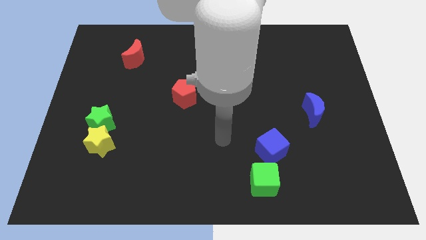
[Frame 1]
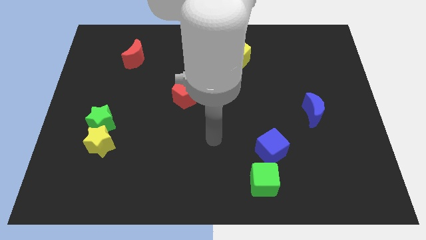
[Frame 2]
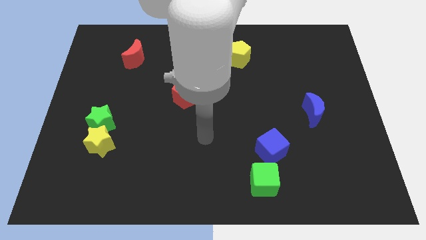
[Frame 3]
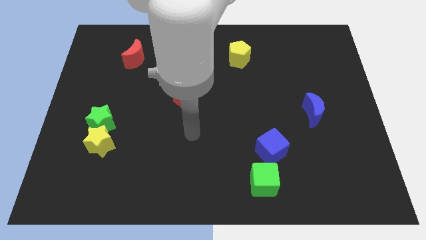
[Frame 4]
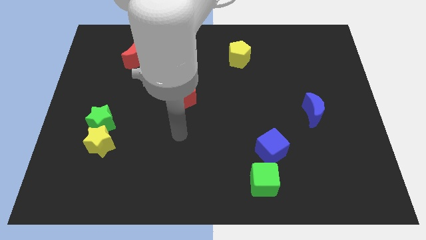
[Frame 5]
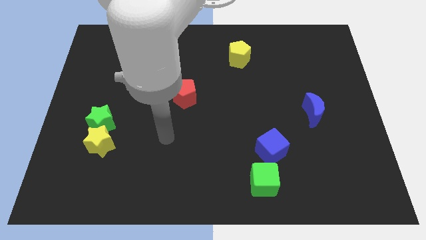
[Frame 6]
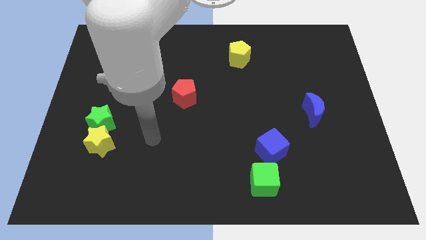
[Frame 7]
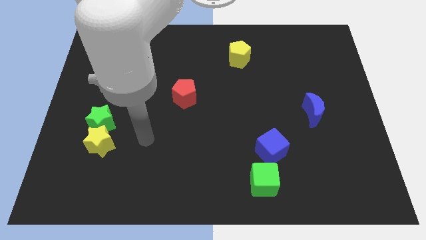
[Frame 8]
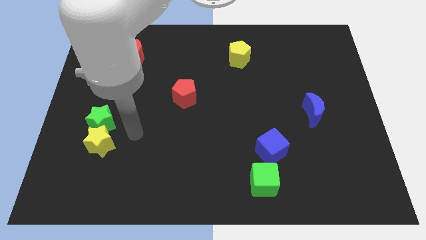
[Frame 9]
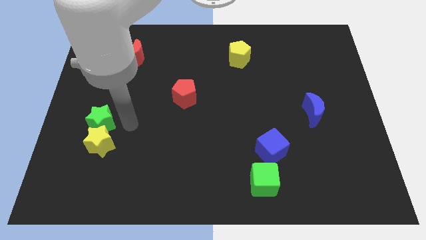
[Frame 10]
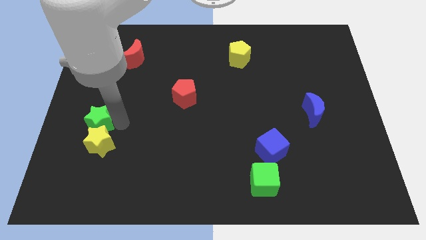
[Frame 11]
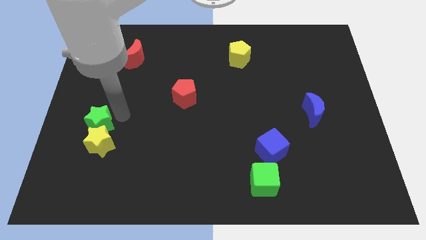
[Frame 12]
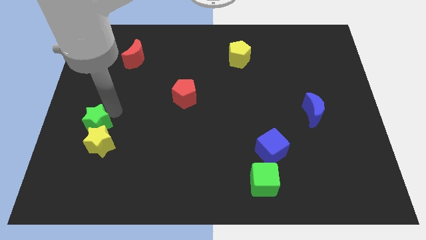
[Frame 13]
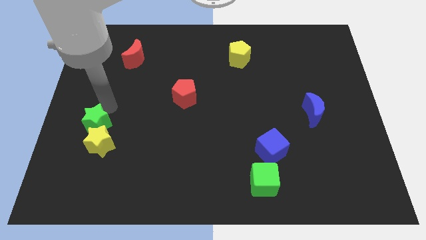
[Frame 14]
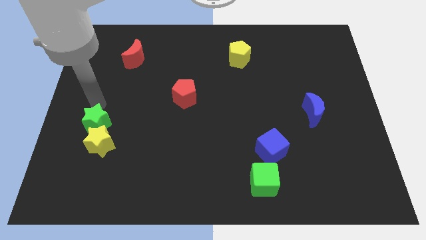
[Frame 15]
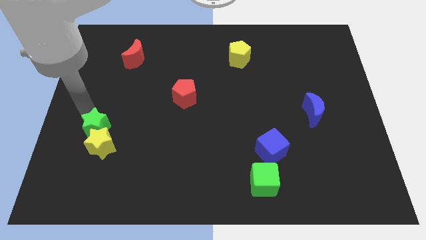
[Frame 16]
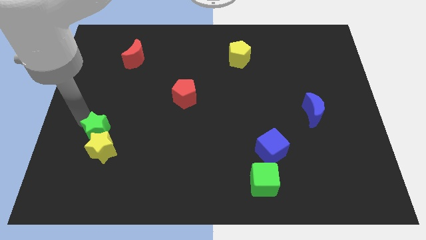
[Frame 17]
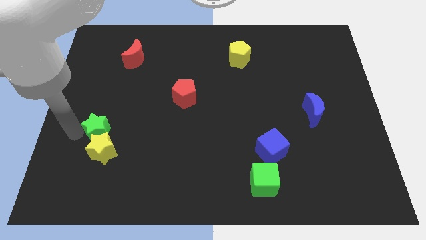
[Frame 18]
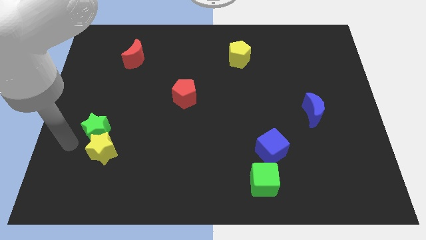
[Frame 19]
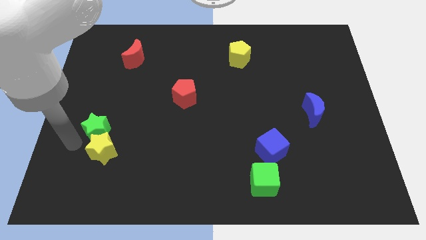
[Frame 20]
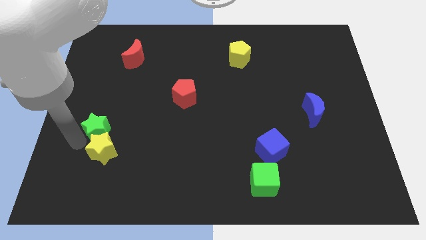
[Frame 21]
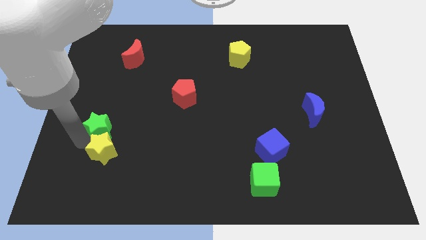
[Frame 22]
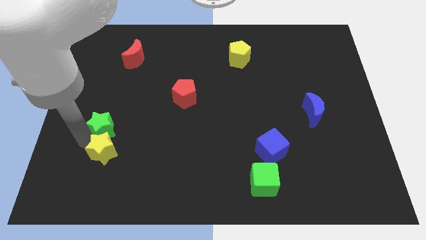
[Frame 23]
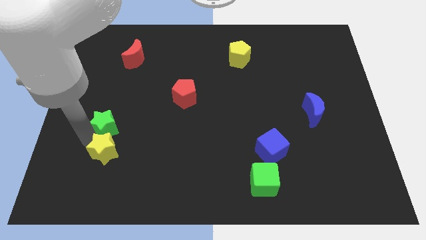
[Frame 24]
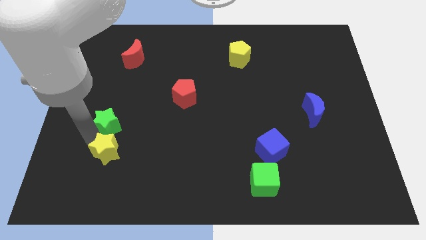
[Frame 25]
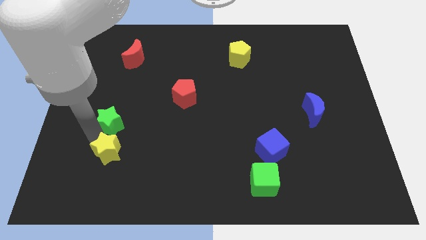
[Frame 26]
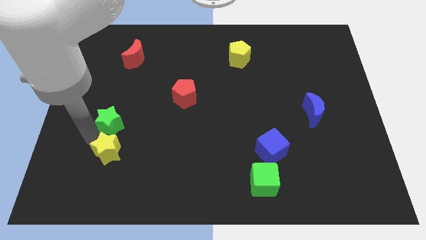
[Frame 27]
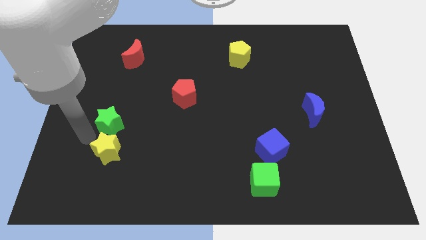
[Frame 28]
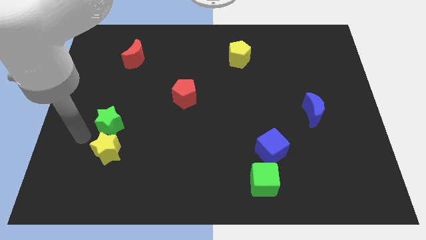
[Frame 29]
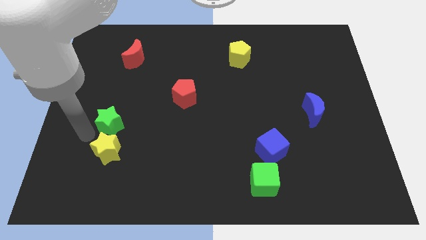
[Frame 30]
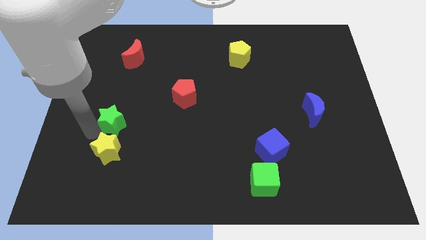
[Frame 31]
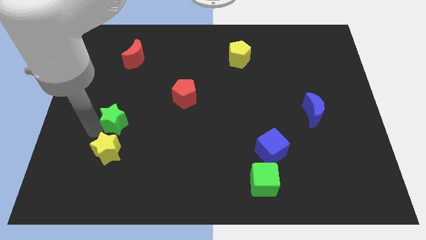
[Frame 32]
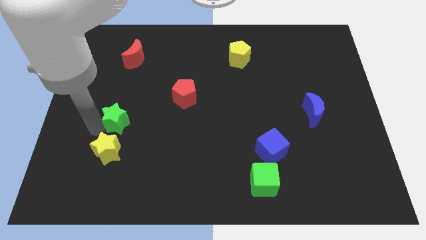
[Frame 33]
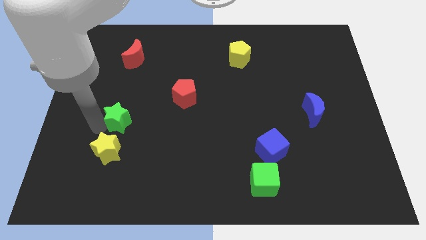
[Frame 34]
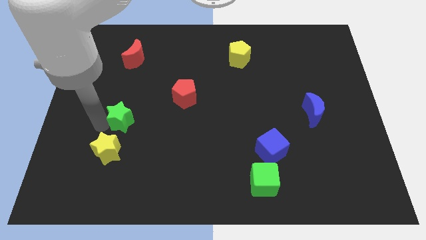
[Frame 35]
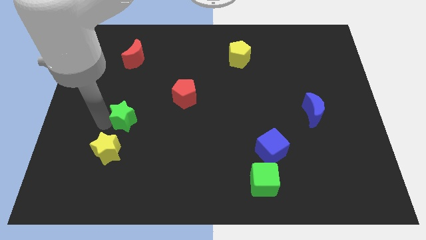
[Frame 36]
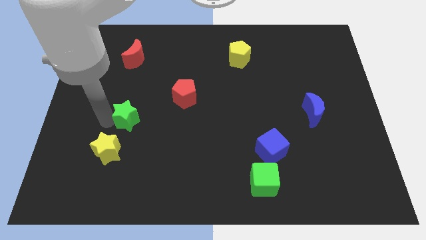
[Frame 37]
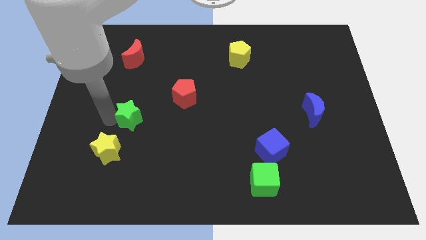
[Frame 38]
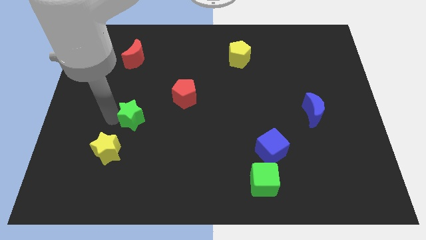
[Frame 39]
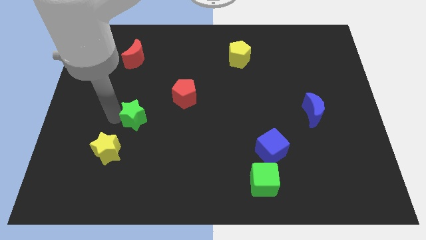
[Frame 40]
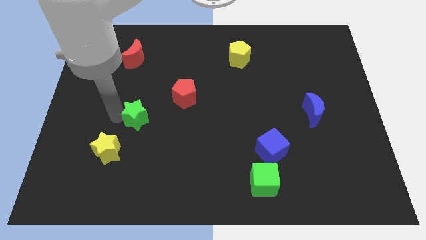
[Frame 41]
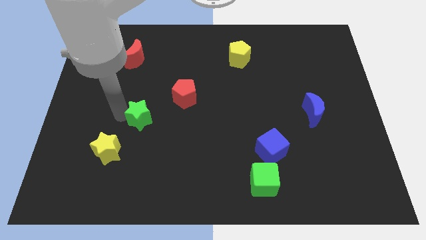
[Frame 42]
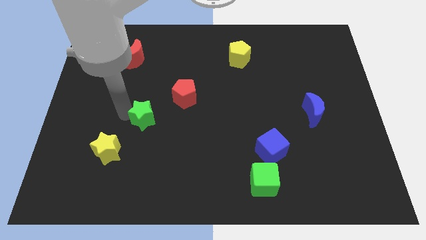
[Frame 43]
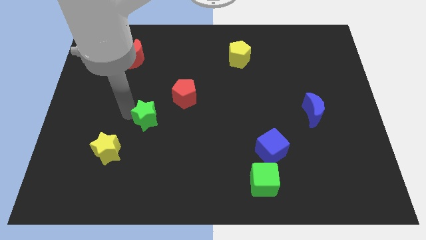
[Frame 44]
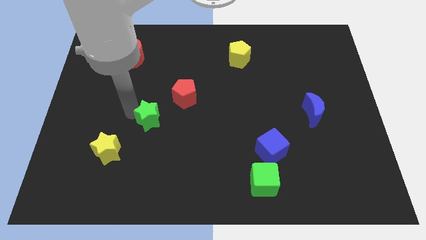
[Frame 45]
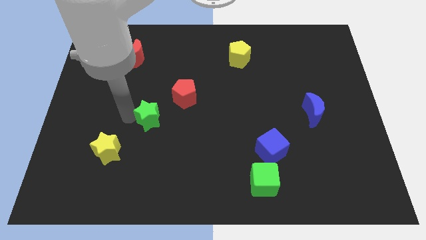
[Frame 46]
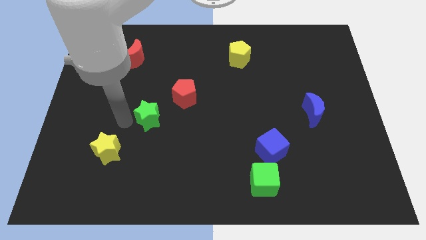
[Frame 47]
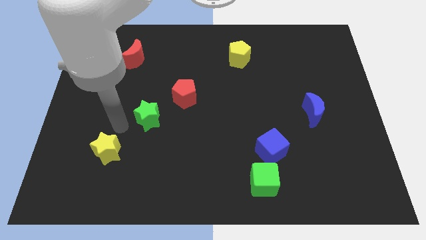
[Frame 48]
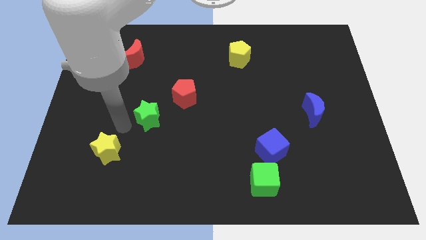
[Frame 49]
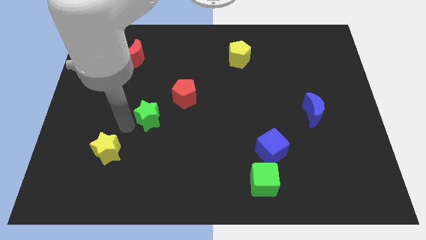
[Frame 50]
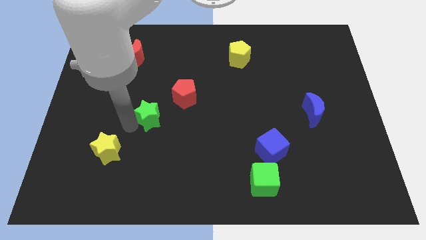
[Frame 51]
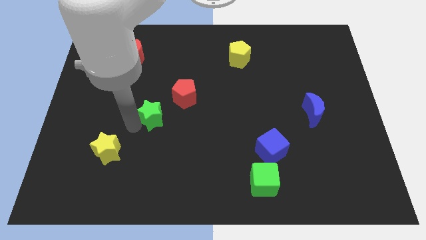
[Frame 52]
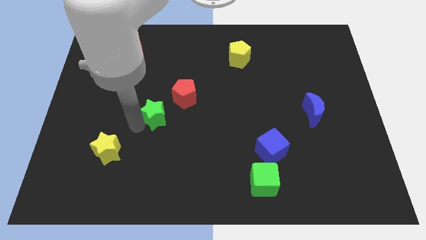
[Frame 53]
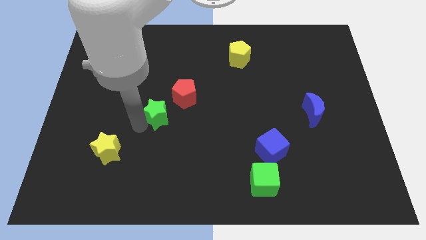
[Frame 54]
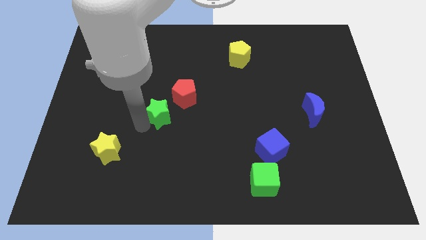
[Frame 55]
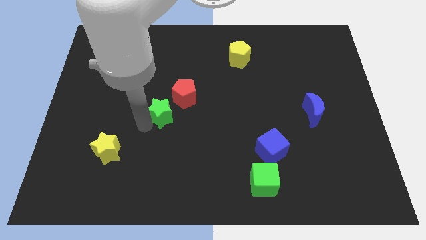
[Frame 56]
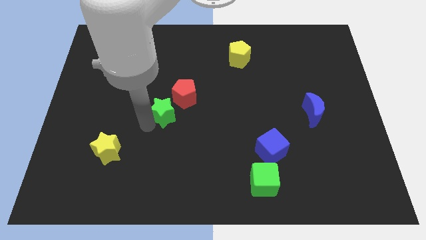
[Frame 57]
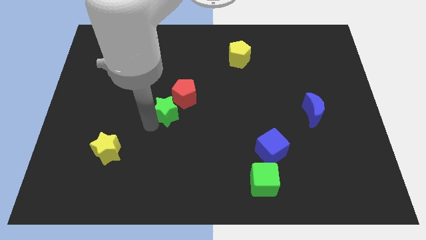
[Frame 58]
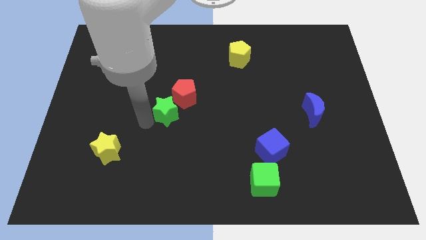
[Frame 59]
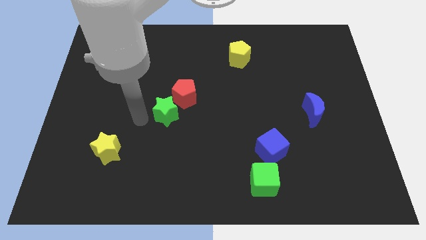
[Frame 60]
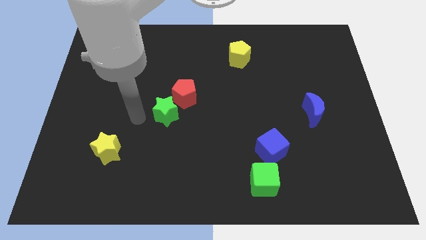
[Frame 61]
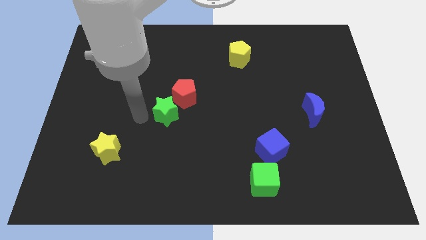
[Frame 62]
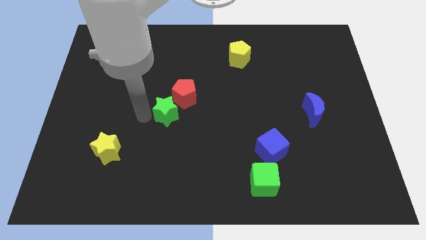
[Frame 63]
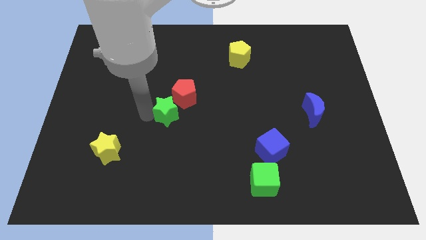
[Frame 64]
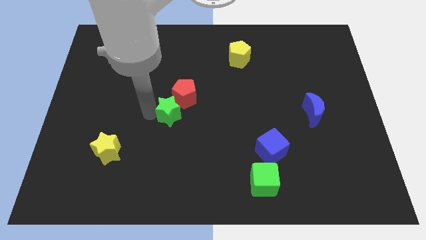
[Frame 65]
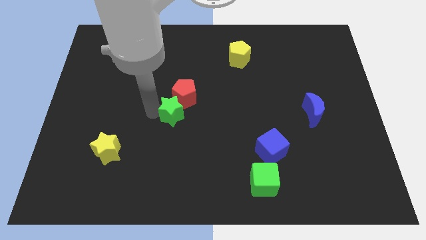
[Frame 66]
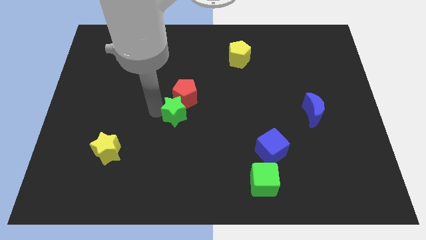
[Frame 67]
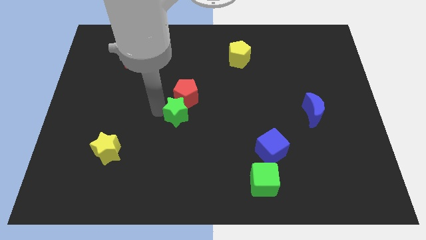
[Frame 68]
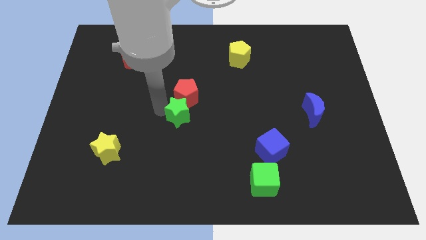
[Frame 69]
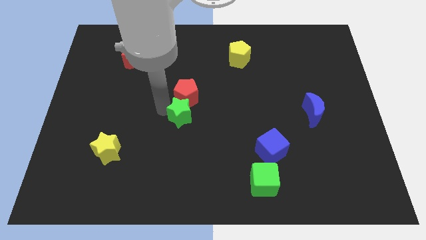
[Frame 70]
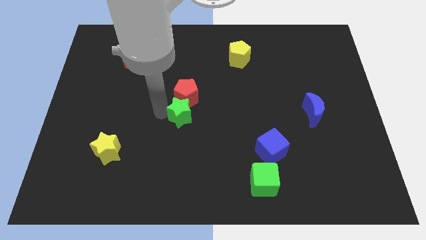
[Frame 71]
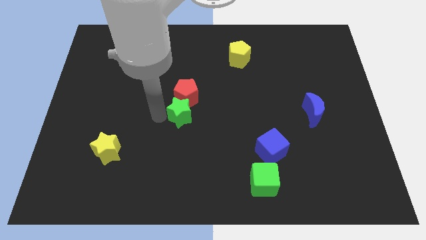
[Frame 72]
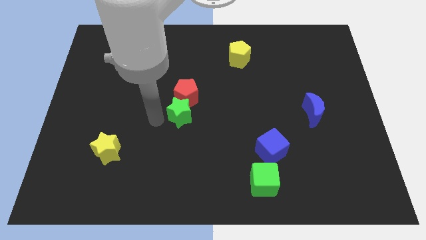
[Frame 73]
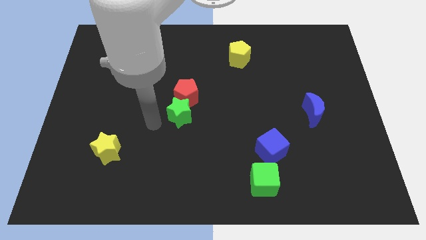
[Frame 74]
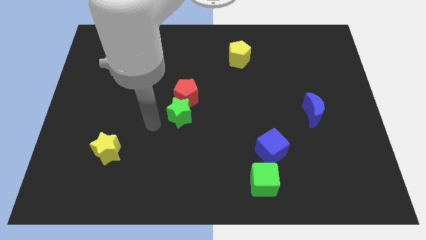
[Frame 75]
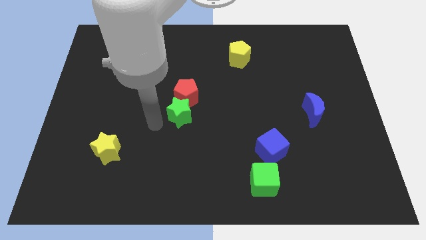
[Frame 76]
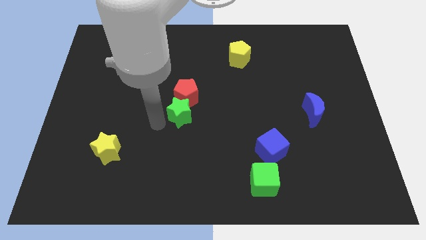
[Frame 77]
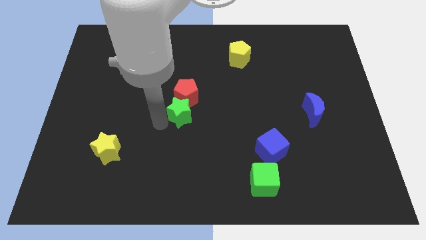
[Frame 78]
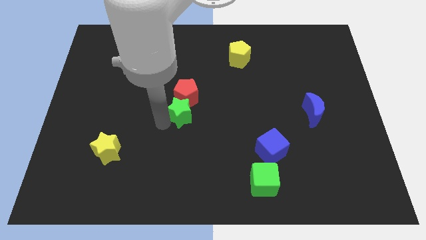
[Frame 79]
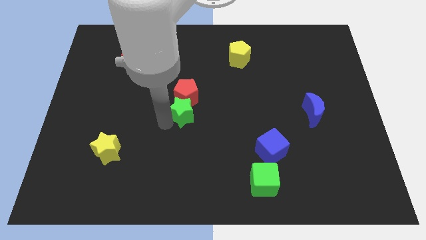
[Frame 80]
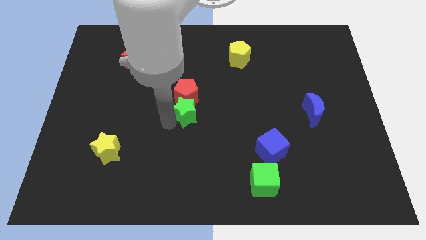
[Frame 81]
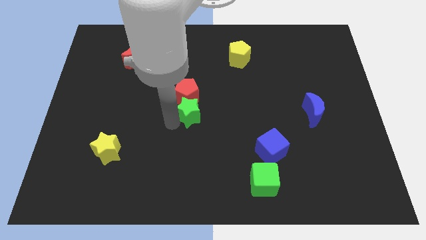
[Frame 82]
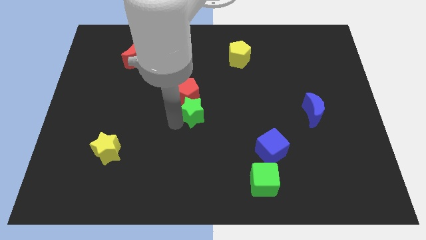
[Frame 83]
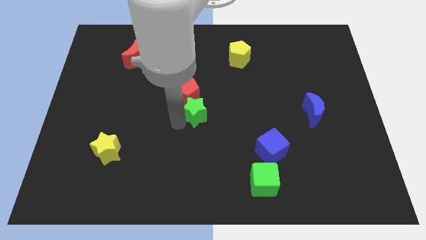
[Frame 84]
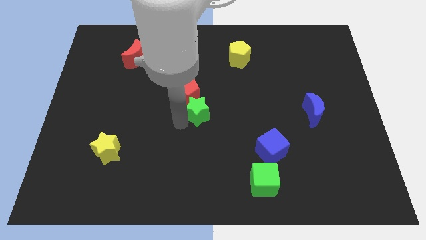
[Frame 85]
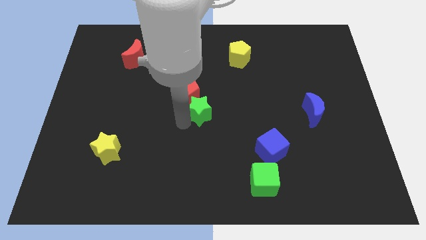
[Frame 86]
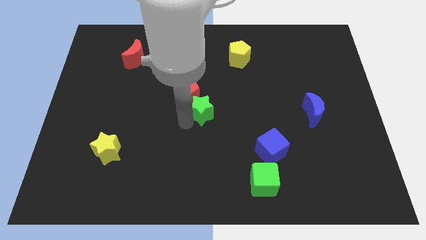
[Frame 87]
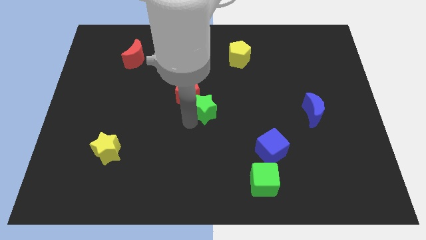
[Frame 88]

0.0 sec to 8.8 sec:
move the green star right of the red pentagon
